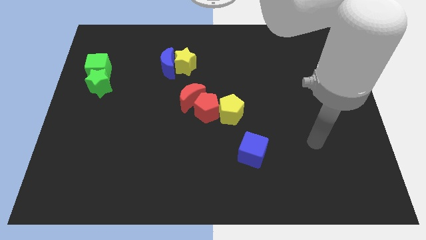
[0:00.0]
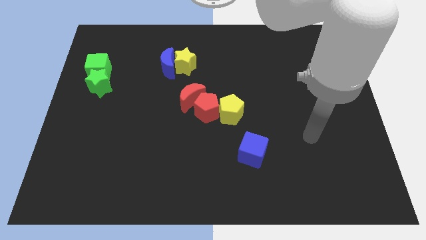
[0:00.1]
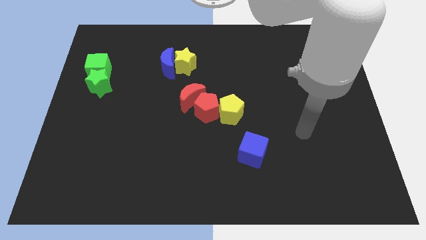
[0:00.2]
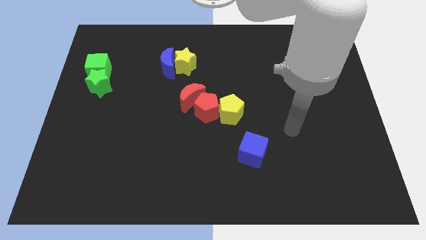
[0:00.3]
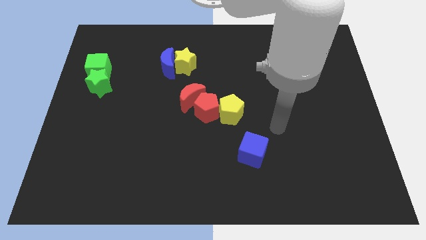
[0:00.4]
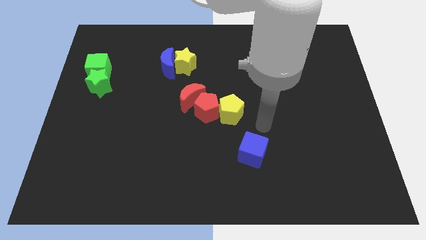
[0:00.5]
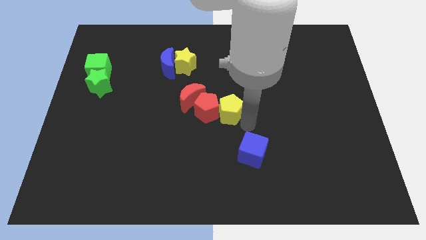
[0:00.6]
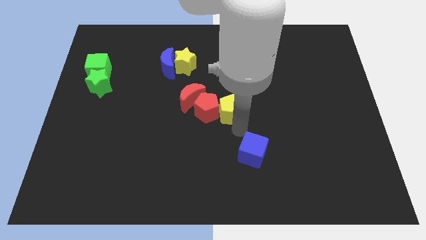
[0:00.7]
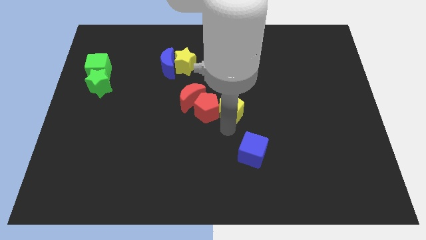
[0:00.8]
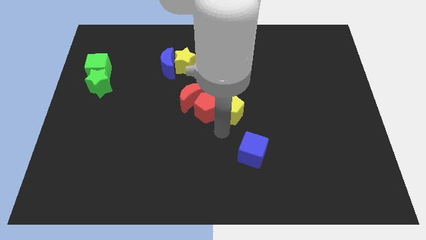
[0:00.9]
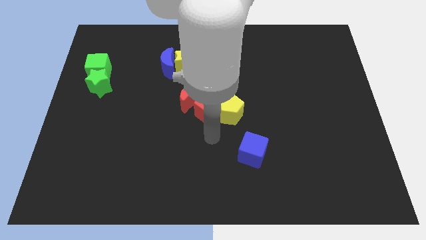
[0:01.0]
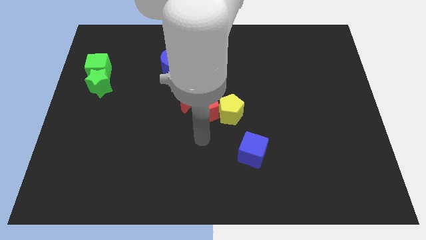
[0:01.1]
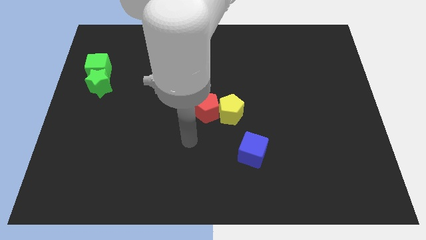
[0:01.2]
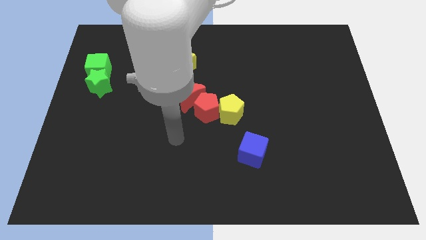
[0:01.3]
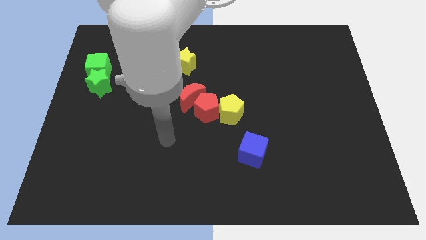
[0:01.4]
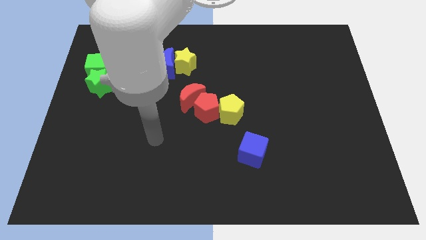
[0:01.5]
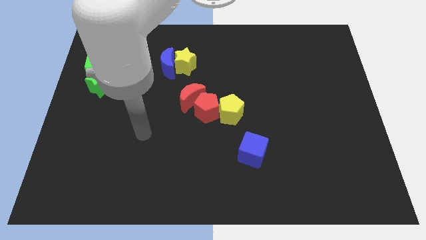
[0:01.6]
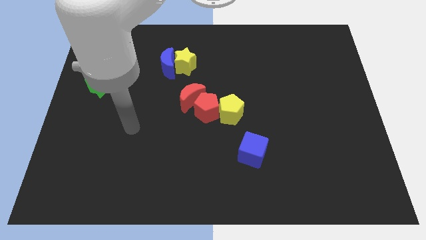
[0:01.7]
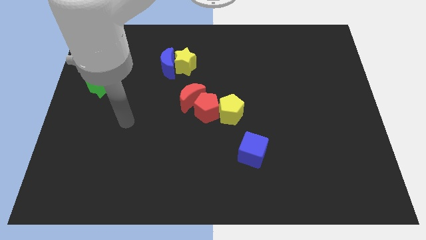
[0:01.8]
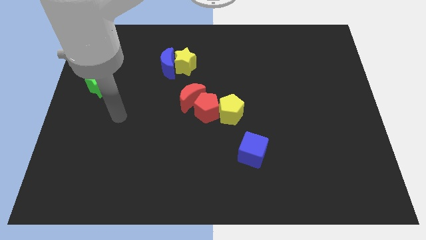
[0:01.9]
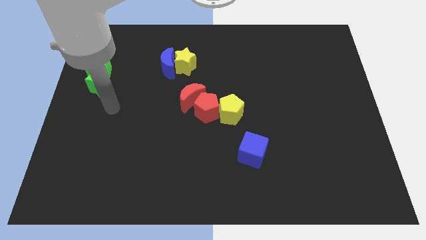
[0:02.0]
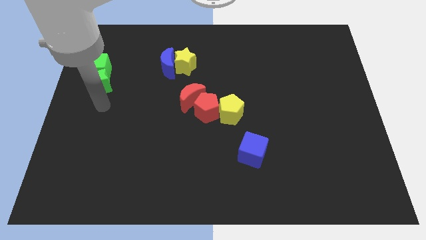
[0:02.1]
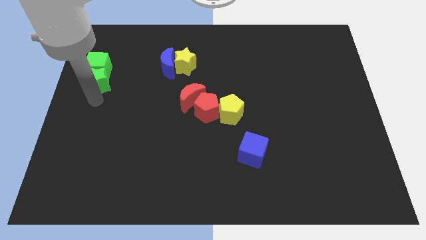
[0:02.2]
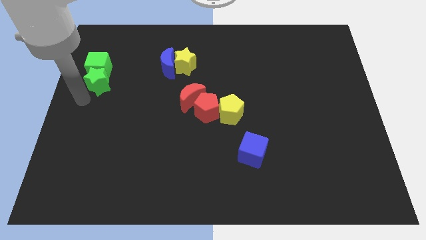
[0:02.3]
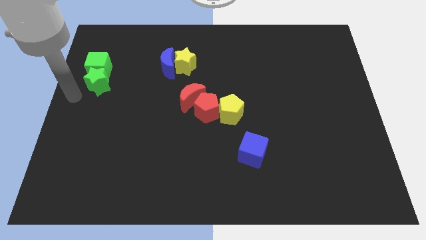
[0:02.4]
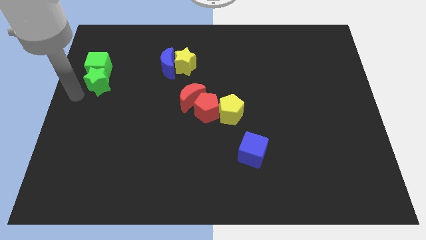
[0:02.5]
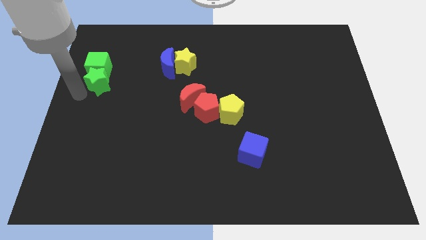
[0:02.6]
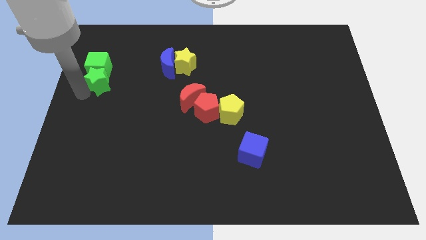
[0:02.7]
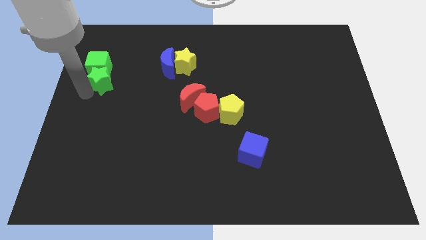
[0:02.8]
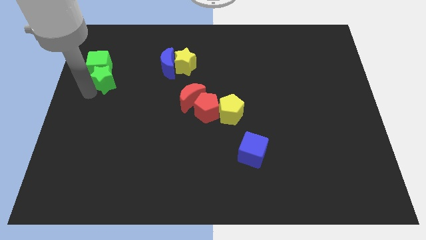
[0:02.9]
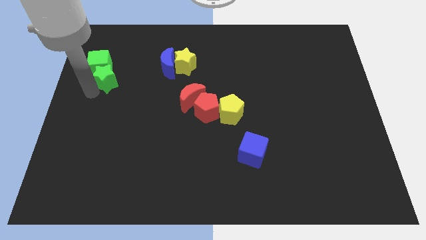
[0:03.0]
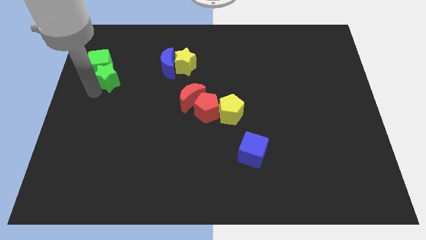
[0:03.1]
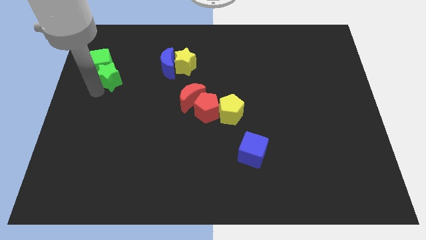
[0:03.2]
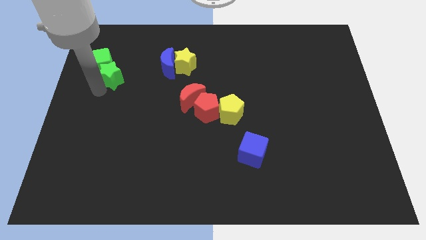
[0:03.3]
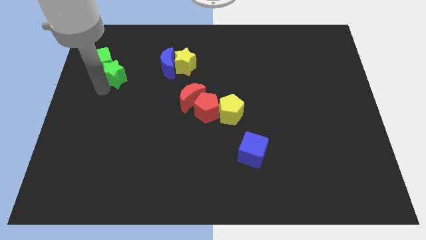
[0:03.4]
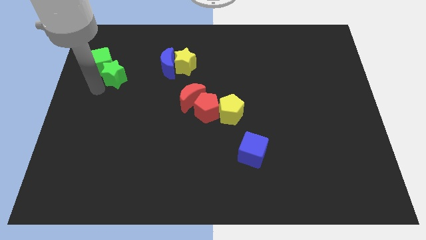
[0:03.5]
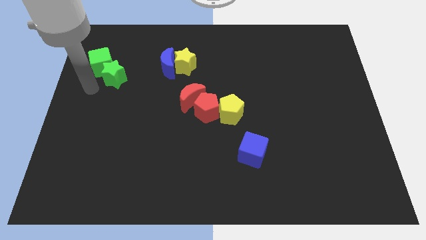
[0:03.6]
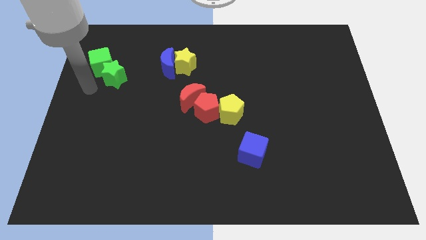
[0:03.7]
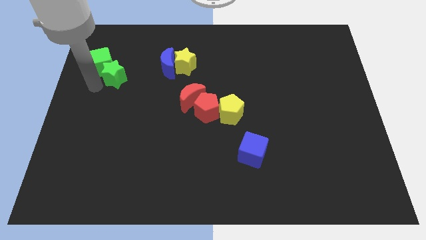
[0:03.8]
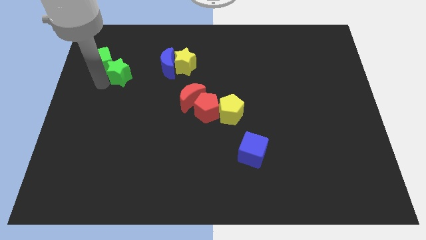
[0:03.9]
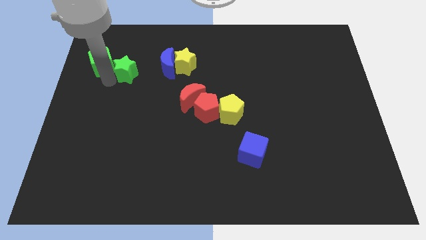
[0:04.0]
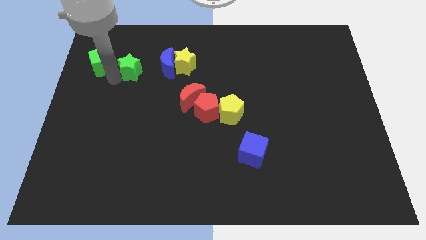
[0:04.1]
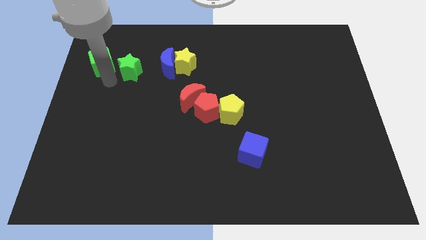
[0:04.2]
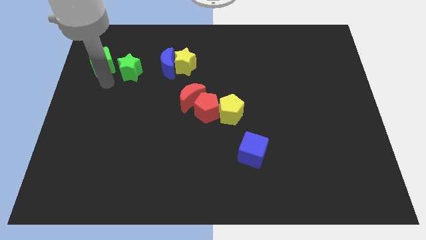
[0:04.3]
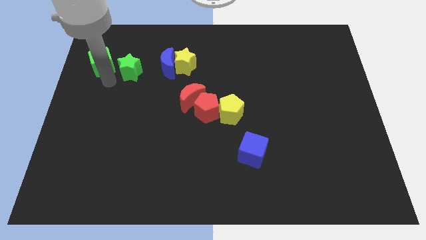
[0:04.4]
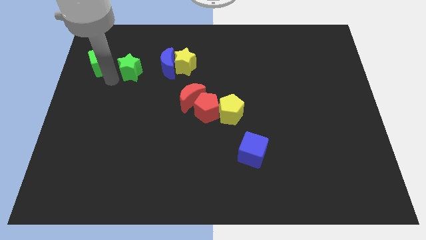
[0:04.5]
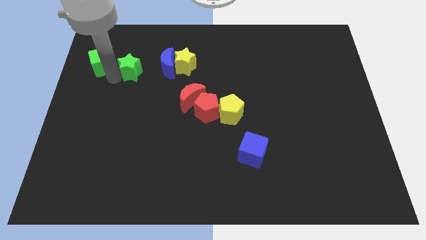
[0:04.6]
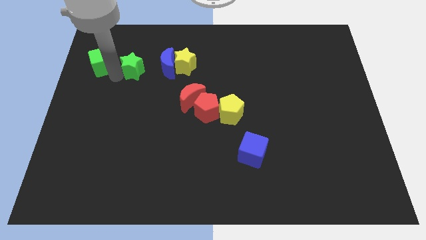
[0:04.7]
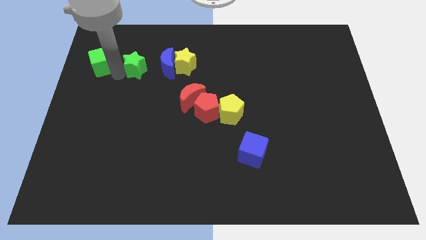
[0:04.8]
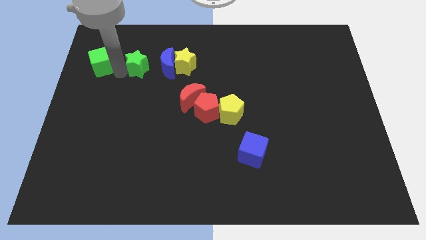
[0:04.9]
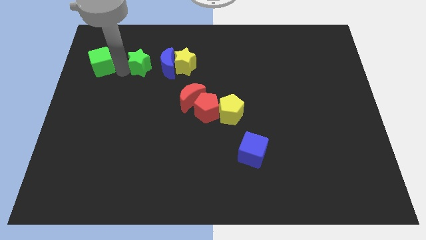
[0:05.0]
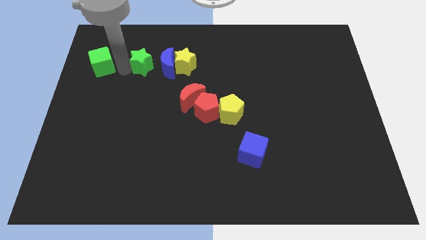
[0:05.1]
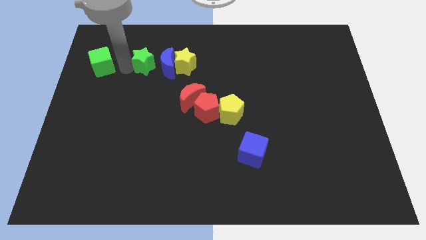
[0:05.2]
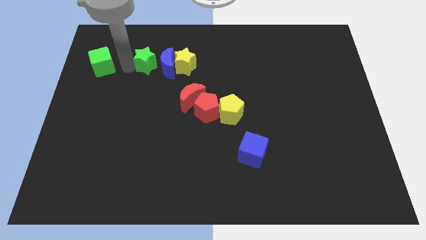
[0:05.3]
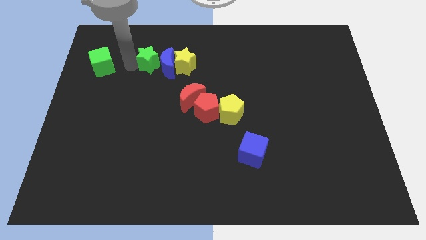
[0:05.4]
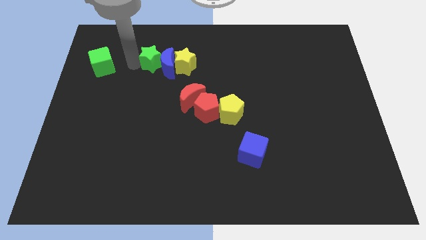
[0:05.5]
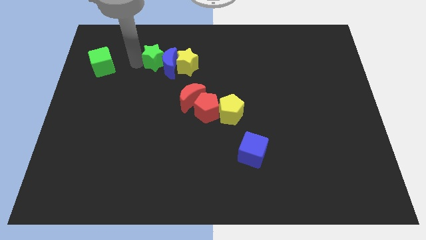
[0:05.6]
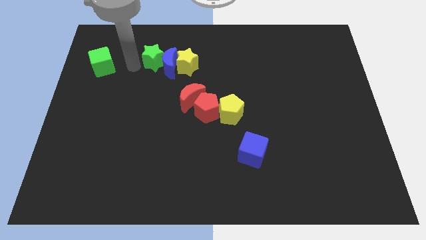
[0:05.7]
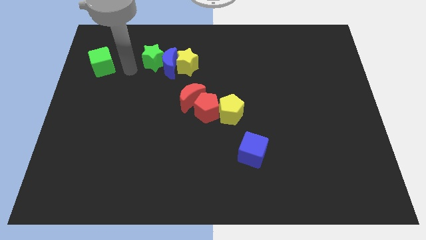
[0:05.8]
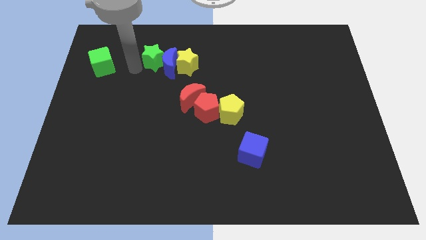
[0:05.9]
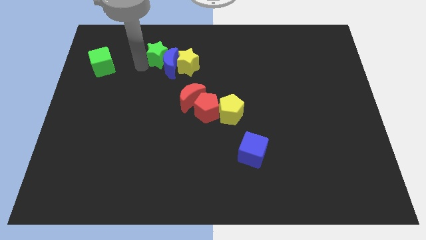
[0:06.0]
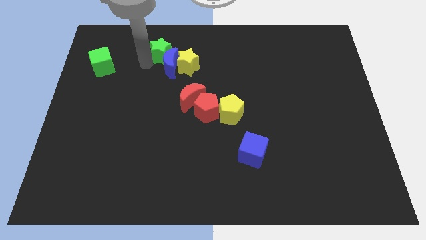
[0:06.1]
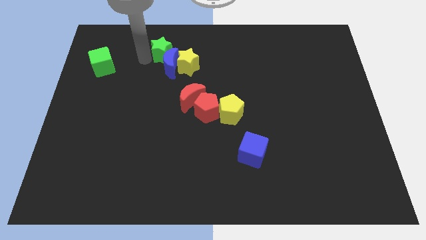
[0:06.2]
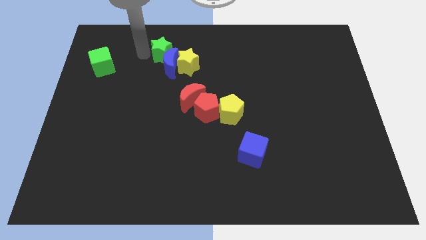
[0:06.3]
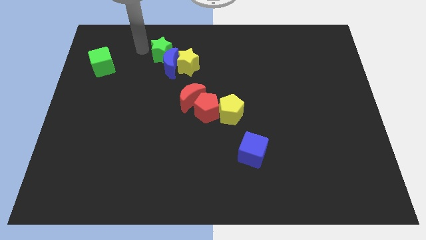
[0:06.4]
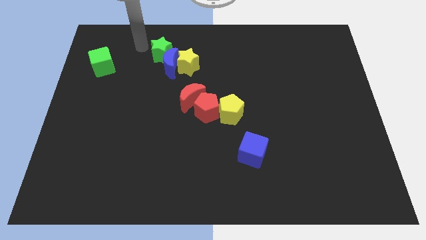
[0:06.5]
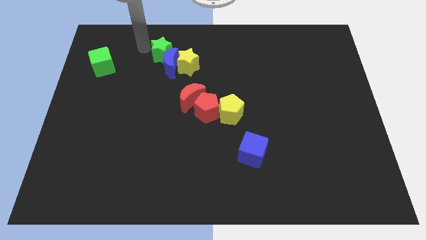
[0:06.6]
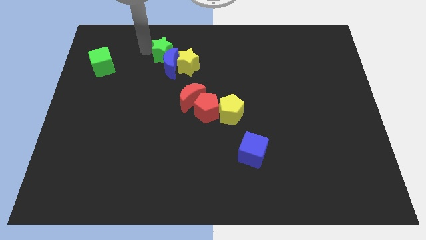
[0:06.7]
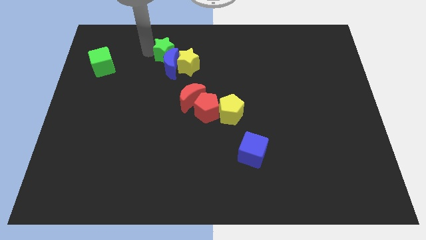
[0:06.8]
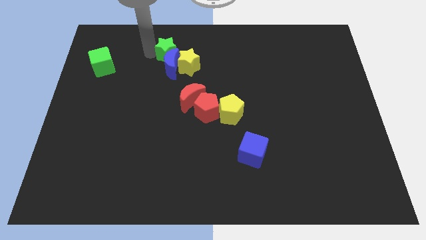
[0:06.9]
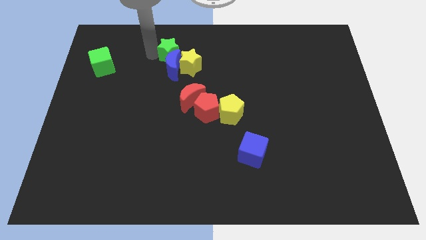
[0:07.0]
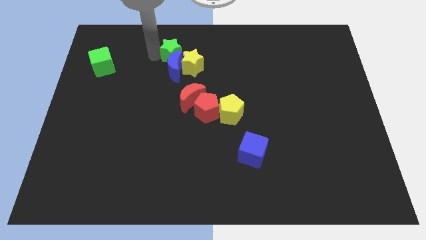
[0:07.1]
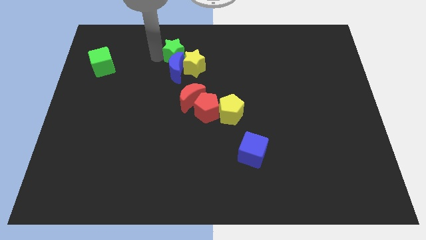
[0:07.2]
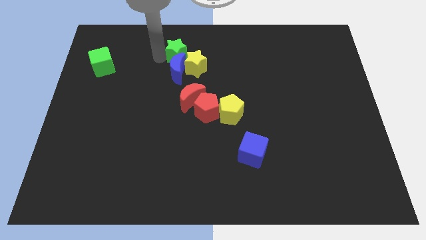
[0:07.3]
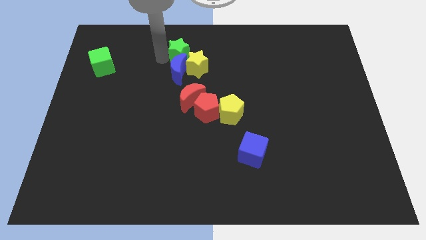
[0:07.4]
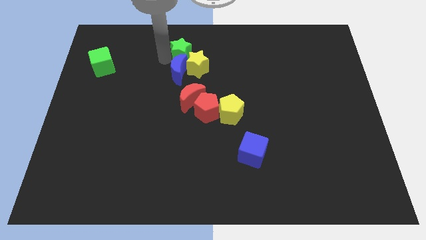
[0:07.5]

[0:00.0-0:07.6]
slide the green star towards the yellow star

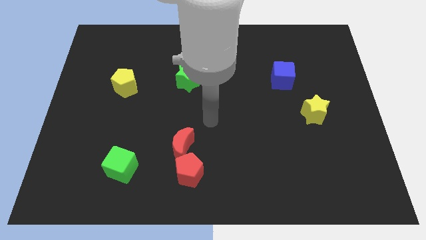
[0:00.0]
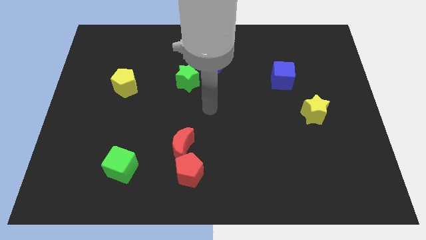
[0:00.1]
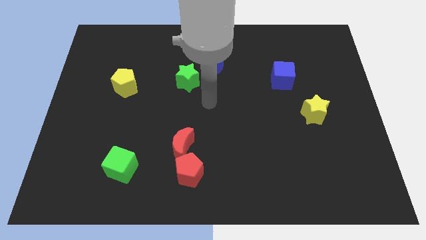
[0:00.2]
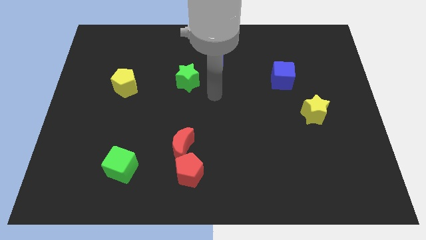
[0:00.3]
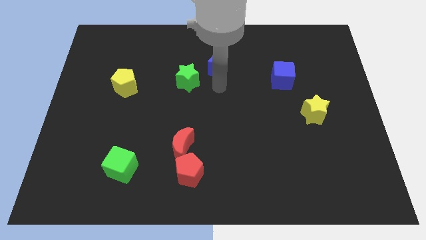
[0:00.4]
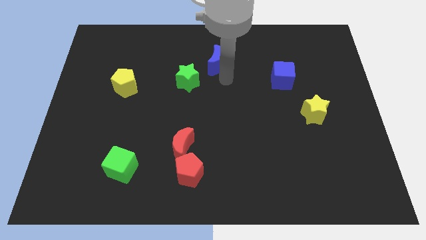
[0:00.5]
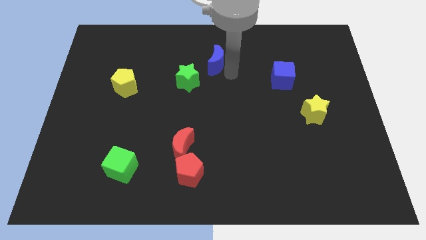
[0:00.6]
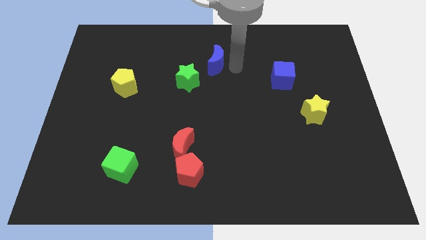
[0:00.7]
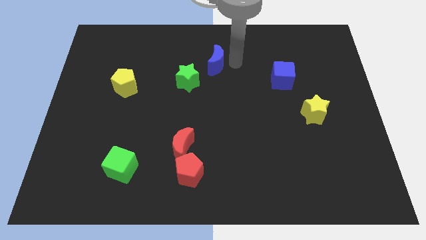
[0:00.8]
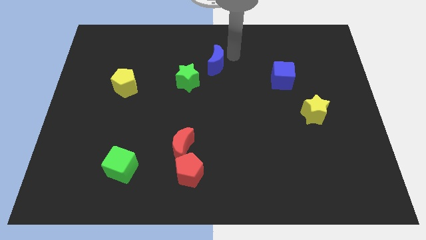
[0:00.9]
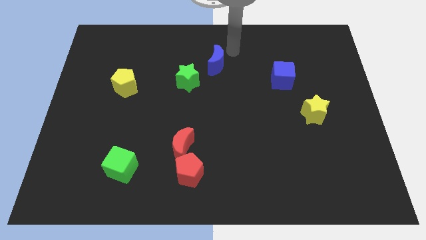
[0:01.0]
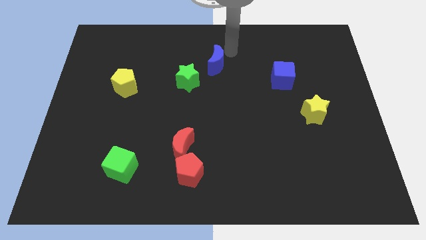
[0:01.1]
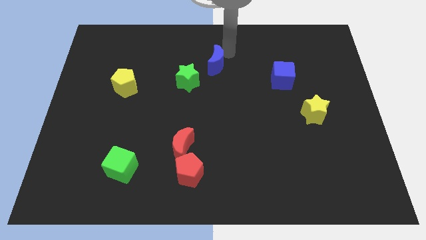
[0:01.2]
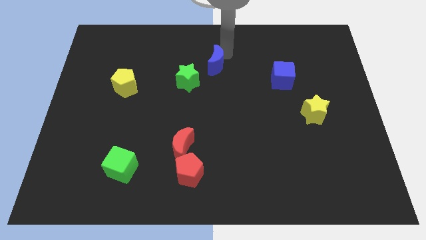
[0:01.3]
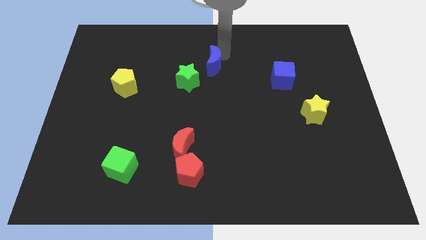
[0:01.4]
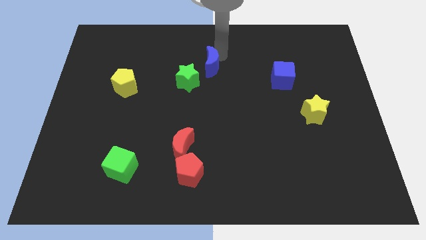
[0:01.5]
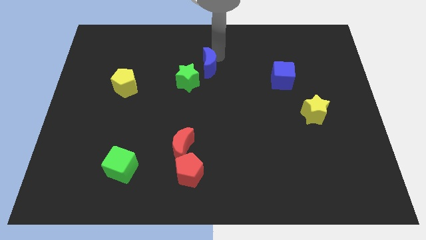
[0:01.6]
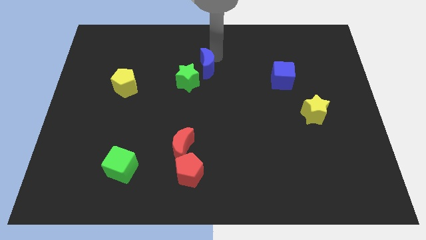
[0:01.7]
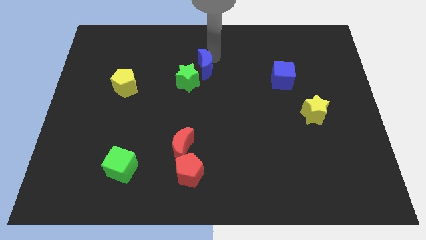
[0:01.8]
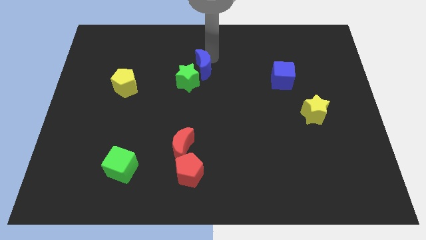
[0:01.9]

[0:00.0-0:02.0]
move the blue moon towards the green star
